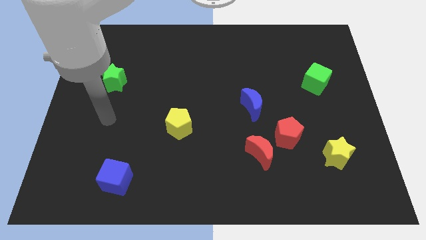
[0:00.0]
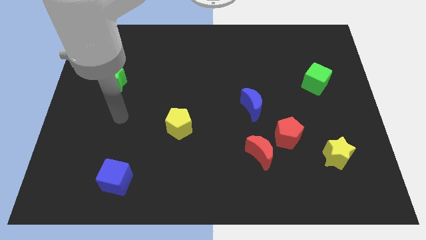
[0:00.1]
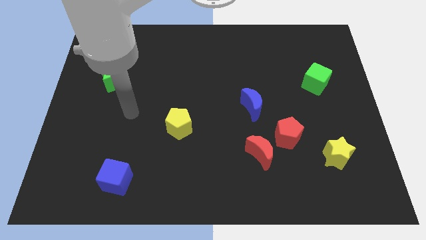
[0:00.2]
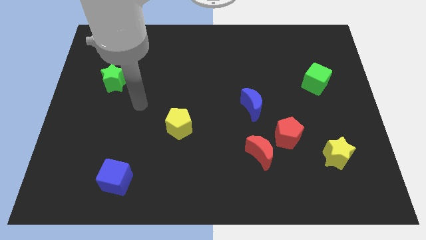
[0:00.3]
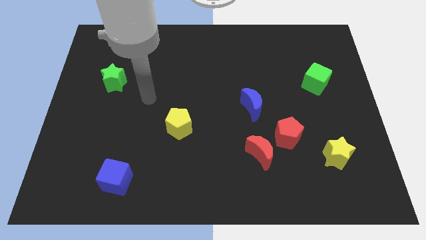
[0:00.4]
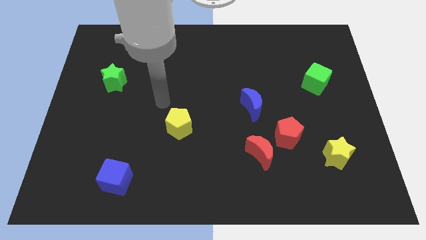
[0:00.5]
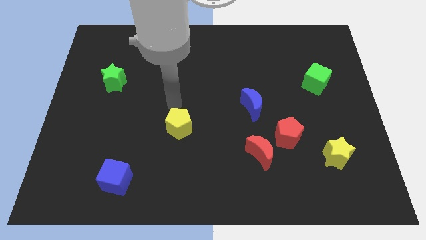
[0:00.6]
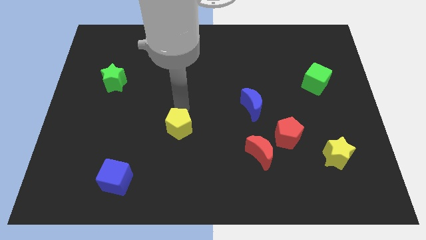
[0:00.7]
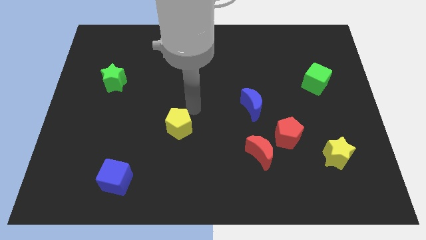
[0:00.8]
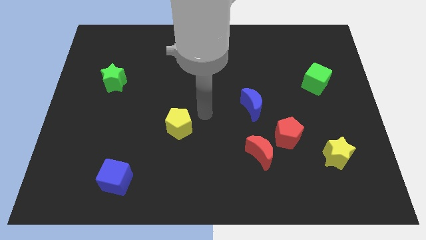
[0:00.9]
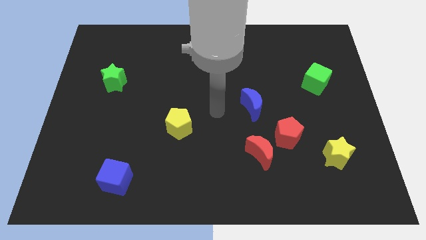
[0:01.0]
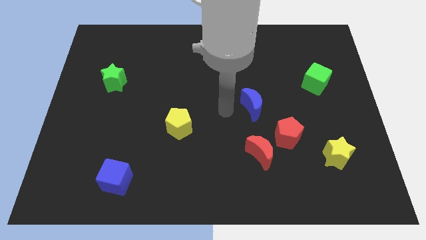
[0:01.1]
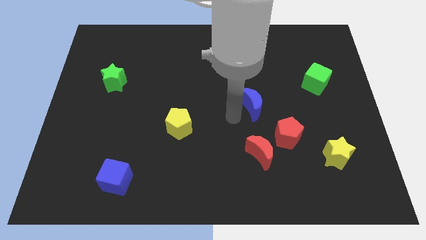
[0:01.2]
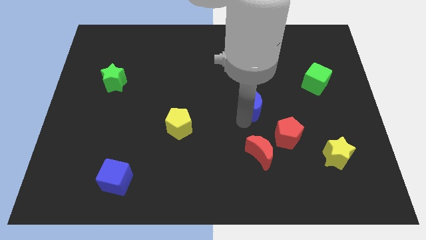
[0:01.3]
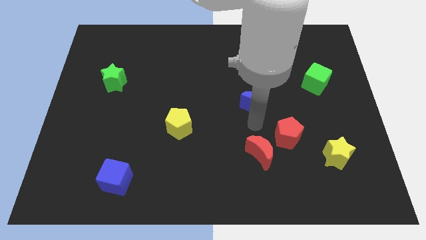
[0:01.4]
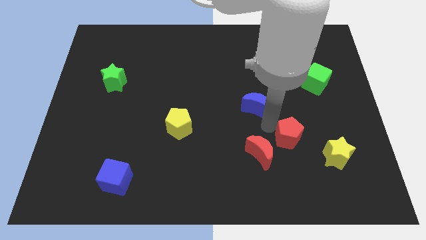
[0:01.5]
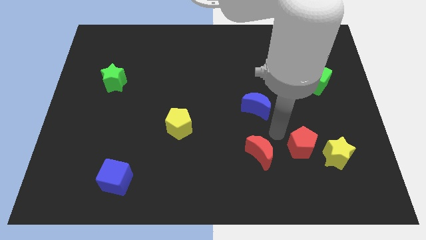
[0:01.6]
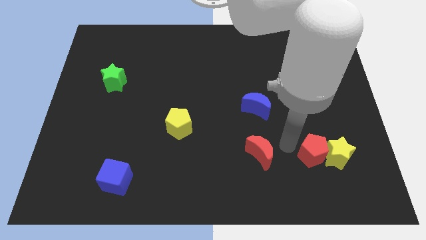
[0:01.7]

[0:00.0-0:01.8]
separate the red moon from the red pentagon

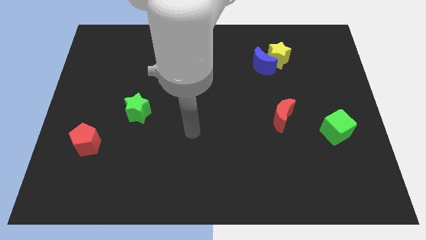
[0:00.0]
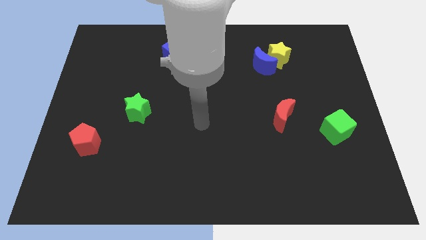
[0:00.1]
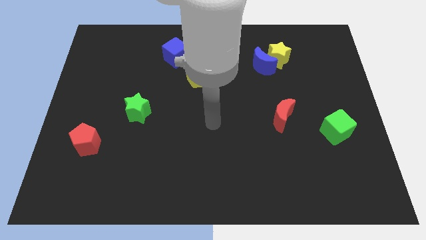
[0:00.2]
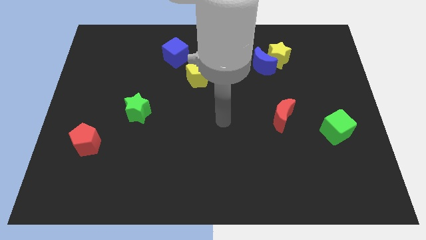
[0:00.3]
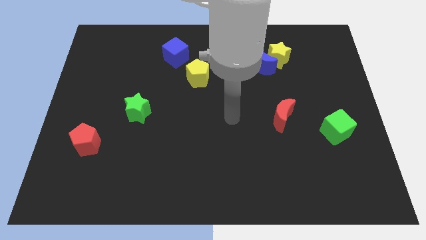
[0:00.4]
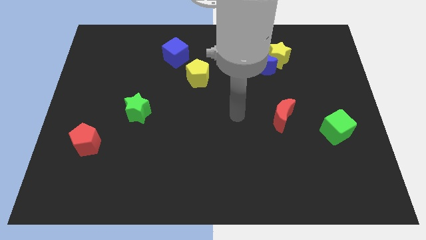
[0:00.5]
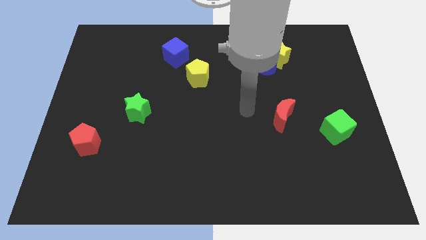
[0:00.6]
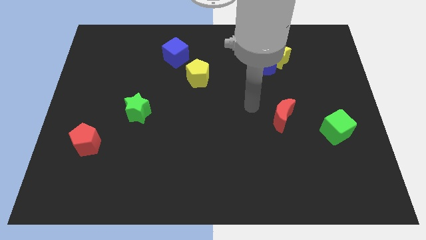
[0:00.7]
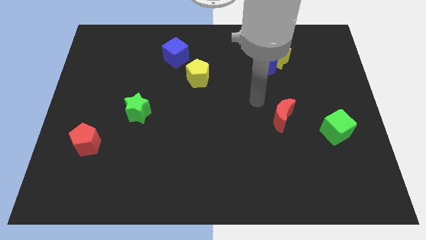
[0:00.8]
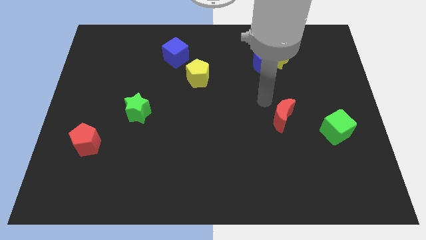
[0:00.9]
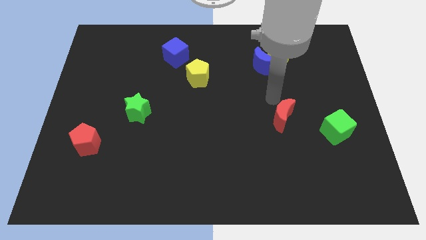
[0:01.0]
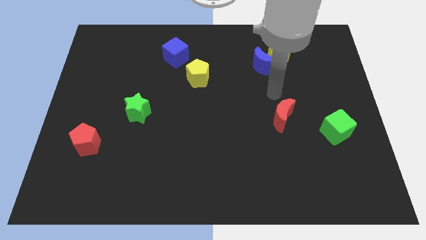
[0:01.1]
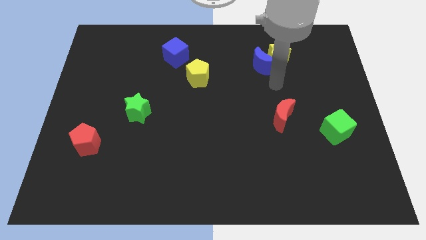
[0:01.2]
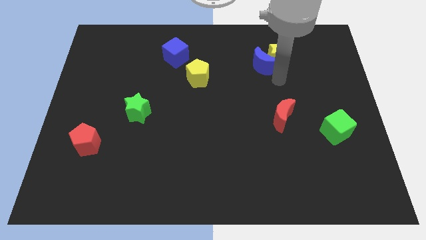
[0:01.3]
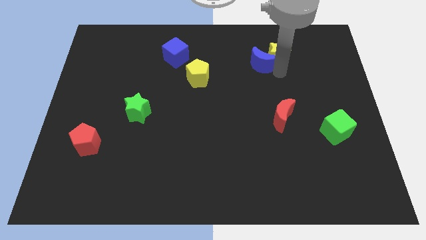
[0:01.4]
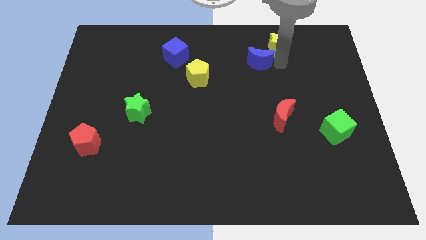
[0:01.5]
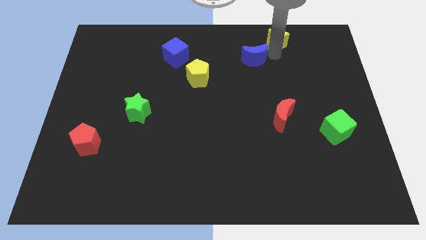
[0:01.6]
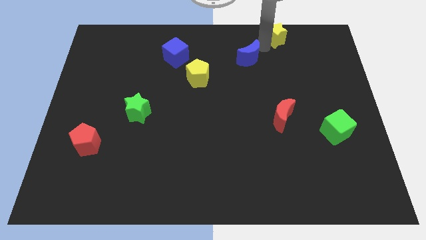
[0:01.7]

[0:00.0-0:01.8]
separate the blue moon from the yellow star

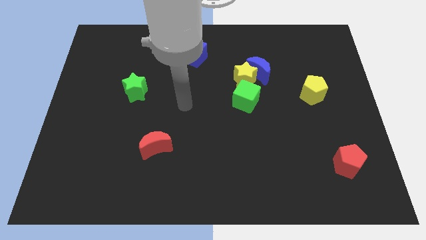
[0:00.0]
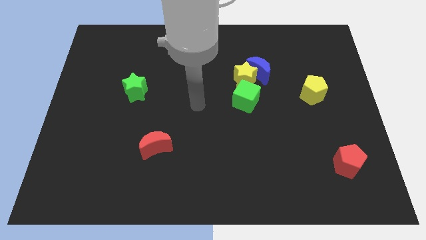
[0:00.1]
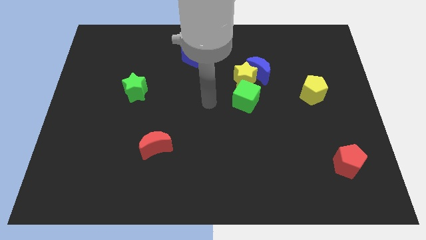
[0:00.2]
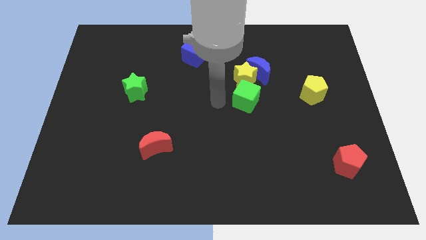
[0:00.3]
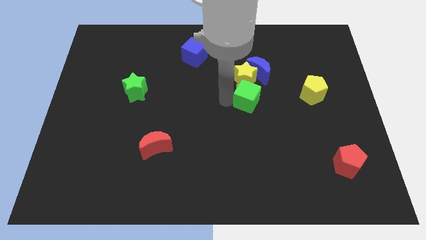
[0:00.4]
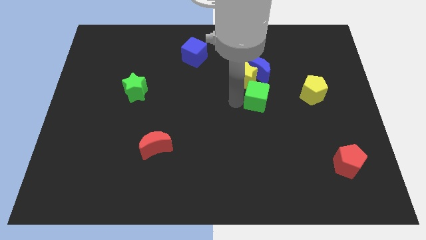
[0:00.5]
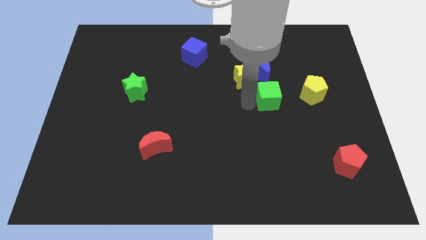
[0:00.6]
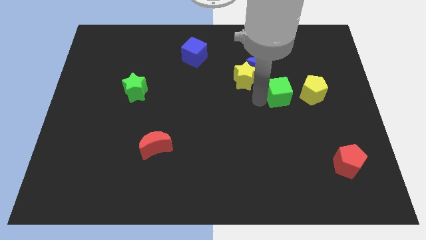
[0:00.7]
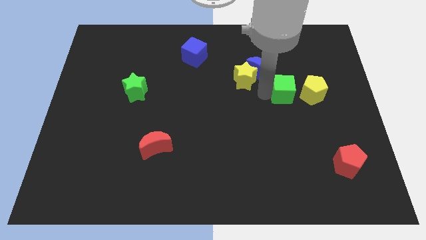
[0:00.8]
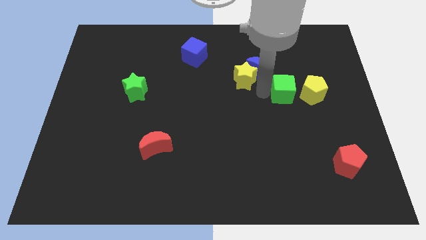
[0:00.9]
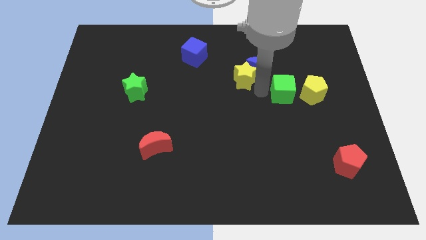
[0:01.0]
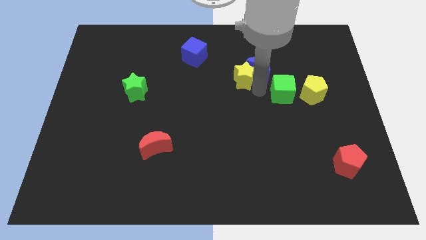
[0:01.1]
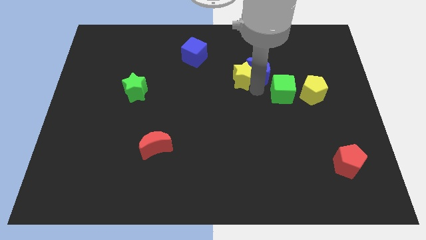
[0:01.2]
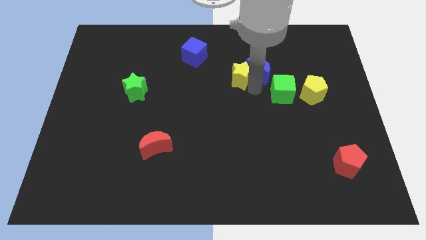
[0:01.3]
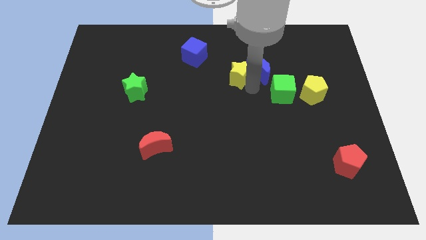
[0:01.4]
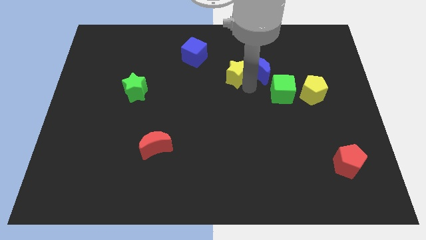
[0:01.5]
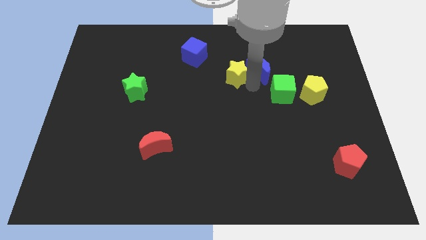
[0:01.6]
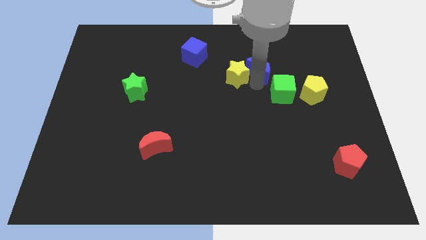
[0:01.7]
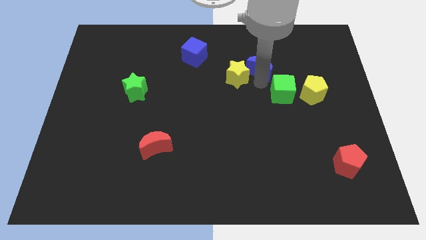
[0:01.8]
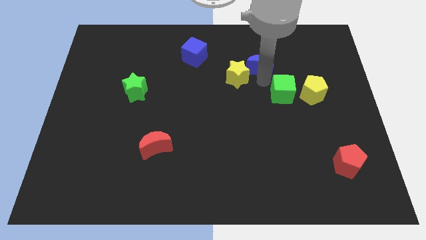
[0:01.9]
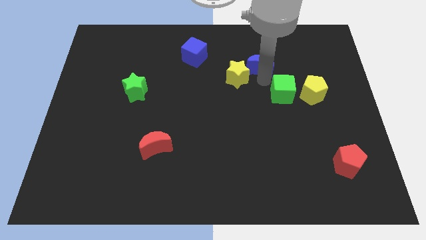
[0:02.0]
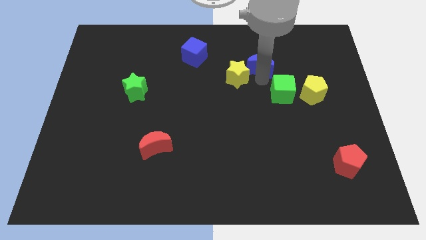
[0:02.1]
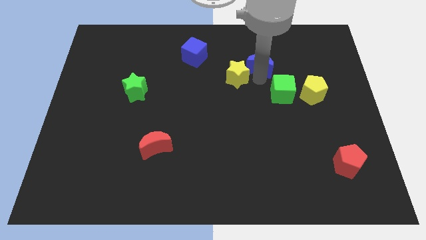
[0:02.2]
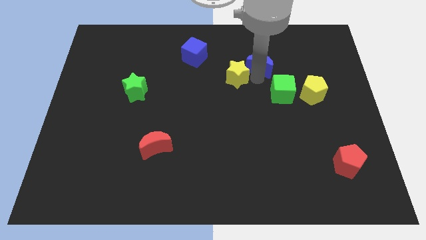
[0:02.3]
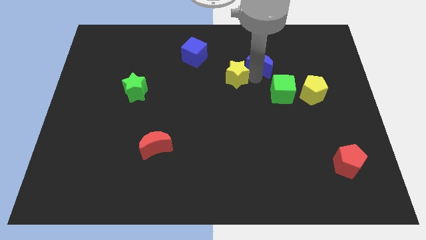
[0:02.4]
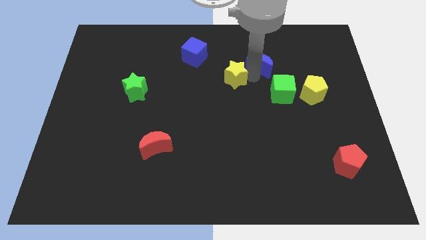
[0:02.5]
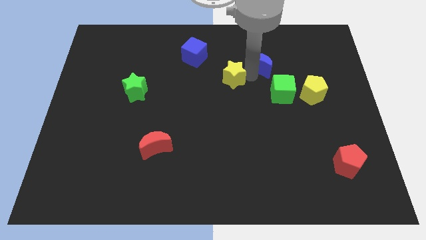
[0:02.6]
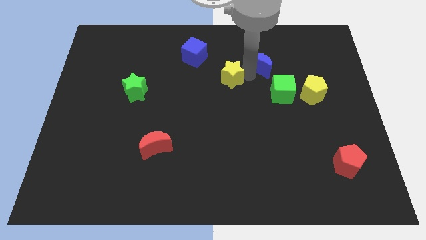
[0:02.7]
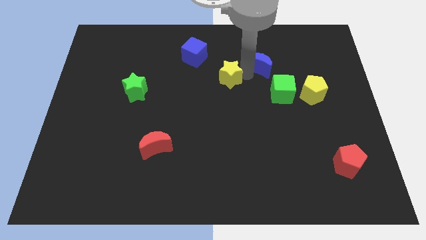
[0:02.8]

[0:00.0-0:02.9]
pull the yellow star apart from the blue moon and green cube

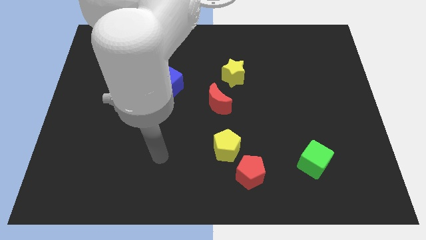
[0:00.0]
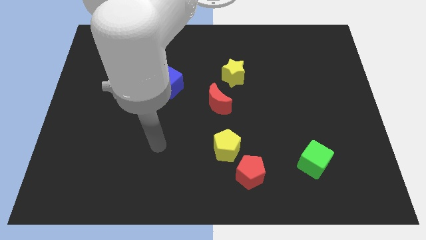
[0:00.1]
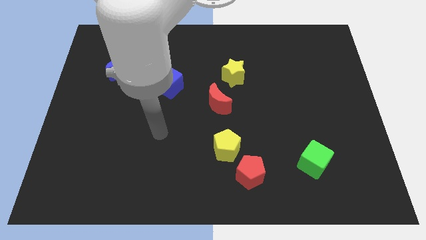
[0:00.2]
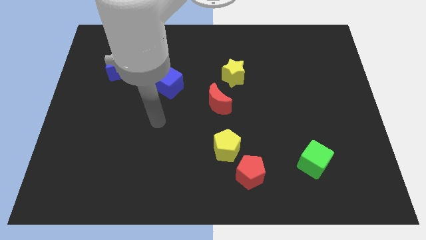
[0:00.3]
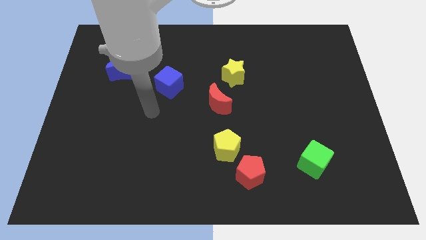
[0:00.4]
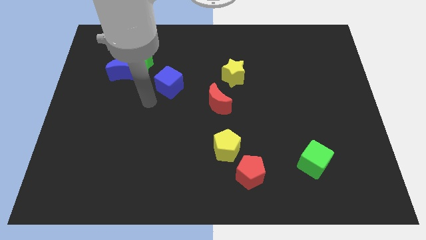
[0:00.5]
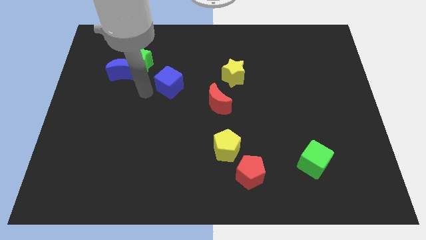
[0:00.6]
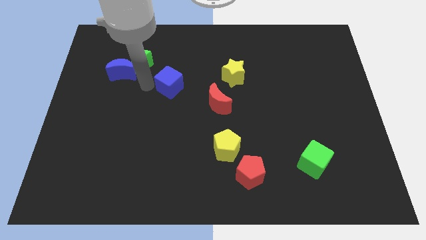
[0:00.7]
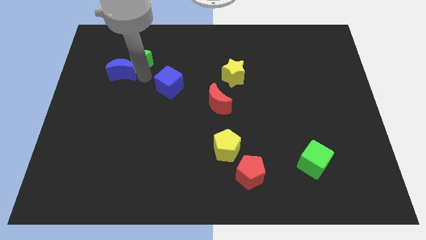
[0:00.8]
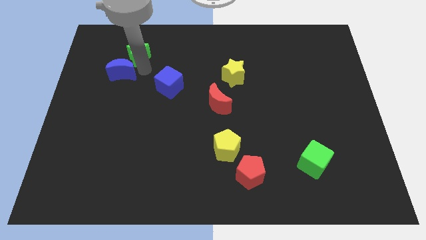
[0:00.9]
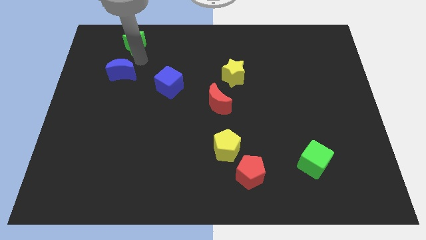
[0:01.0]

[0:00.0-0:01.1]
pull the blue moon apart from the green star

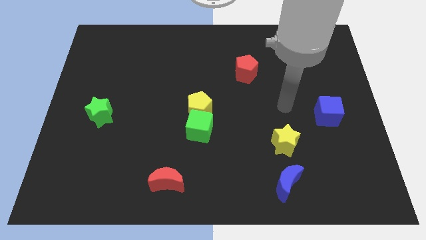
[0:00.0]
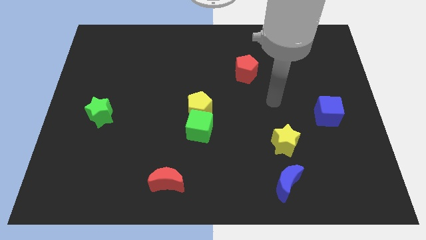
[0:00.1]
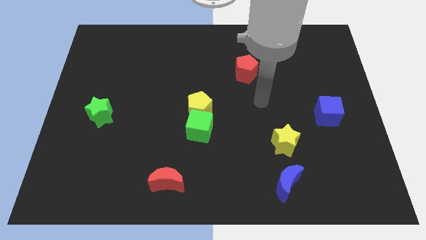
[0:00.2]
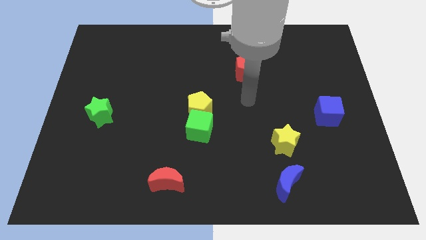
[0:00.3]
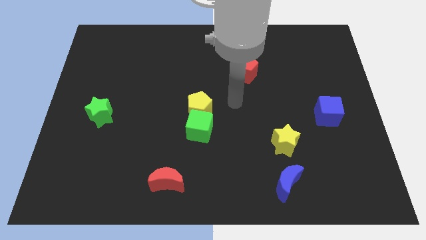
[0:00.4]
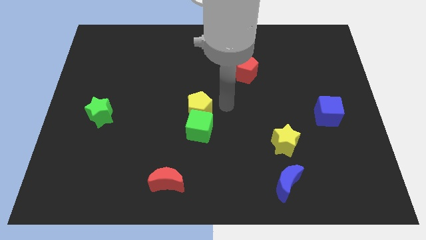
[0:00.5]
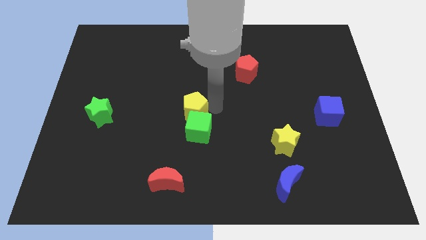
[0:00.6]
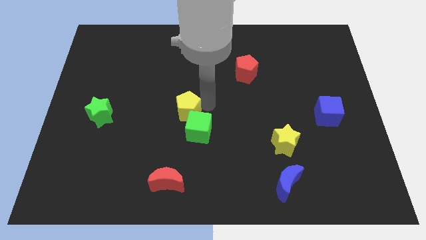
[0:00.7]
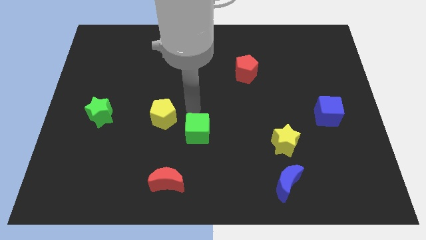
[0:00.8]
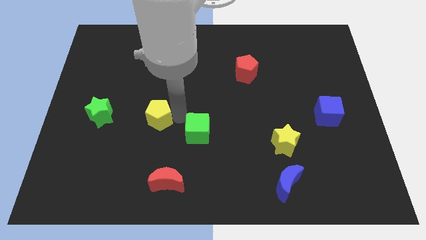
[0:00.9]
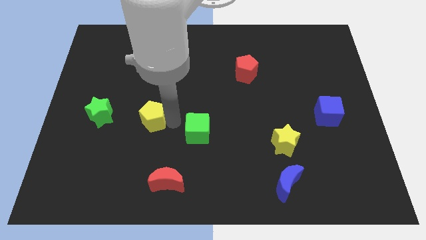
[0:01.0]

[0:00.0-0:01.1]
separate the green cube from the yellow pentagon

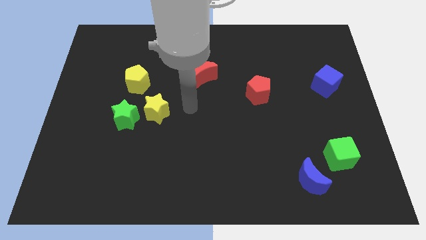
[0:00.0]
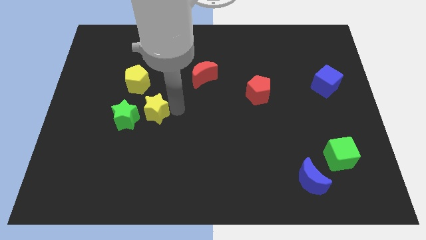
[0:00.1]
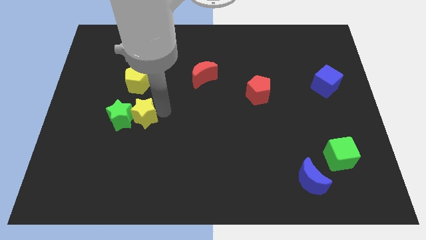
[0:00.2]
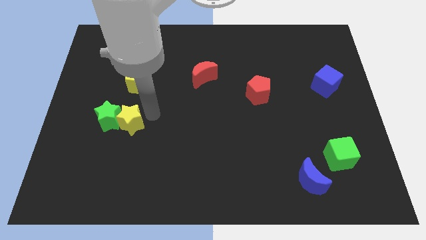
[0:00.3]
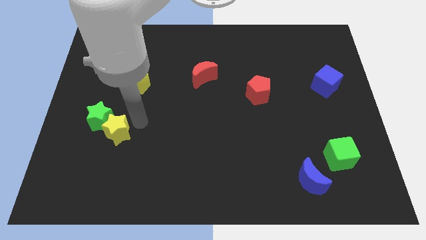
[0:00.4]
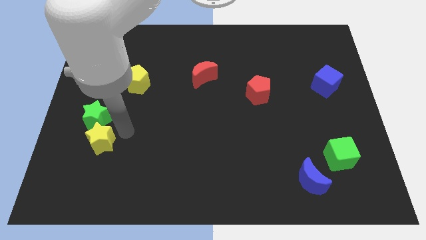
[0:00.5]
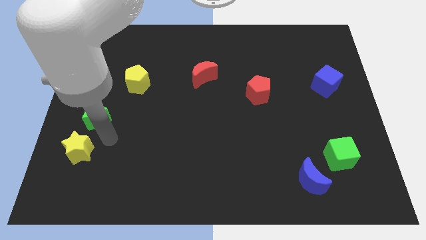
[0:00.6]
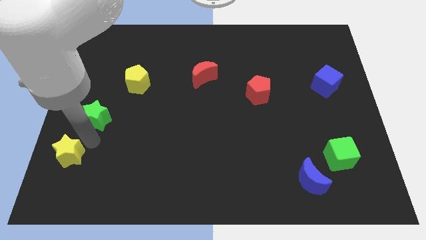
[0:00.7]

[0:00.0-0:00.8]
move the green star away from the yellow star
